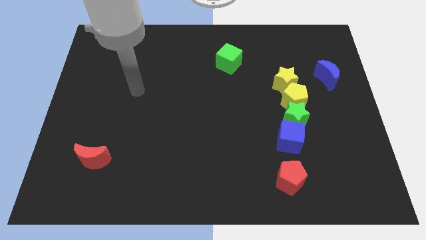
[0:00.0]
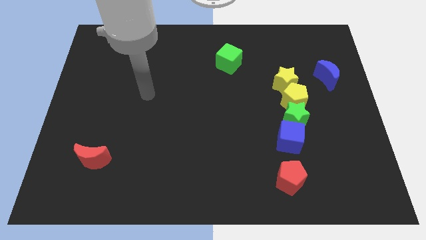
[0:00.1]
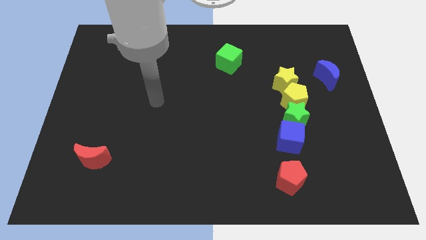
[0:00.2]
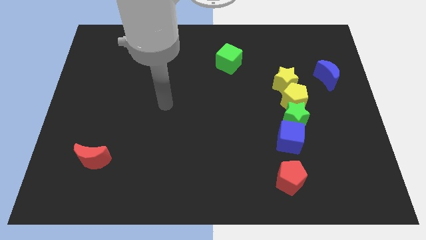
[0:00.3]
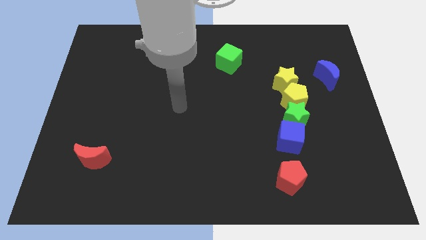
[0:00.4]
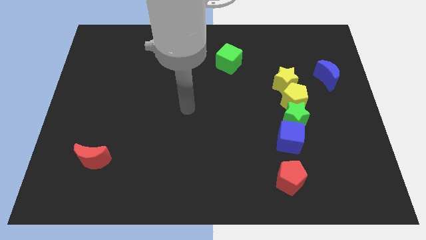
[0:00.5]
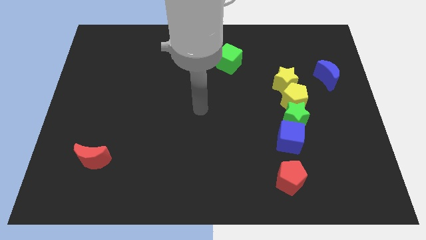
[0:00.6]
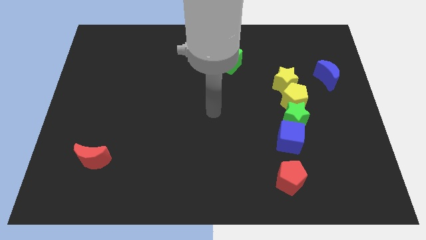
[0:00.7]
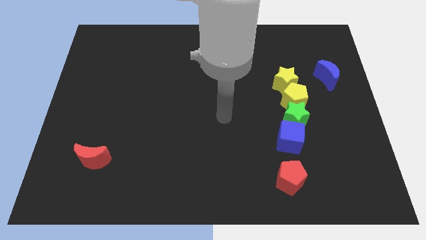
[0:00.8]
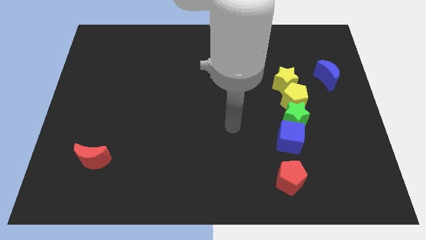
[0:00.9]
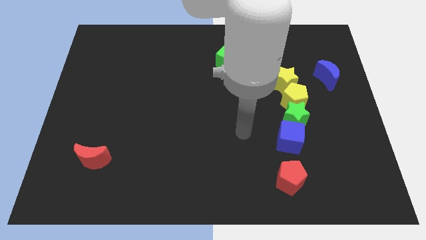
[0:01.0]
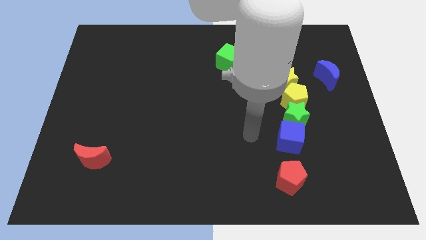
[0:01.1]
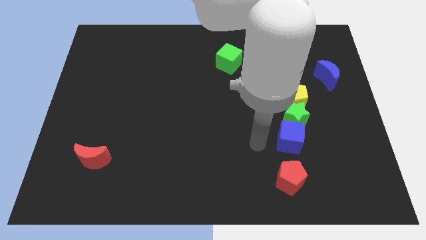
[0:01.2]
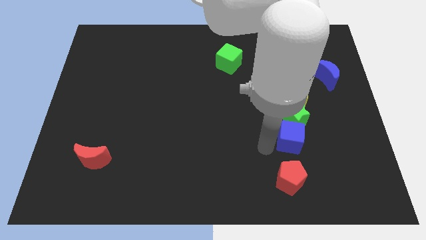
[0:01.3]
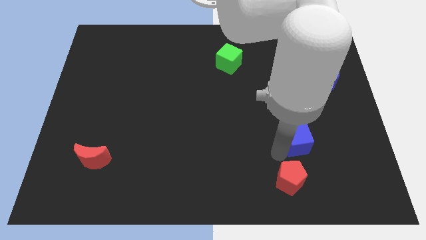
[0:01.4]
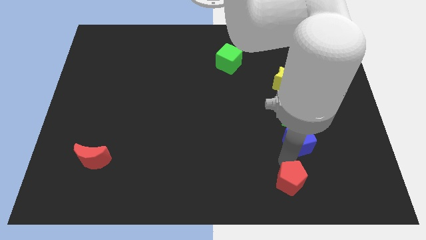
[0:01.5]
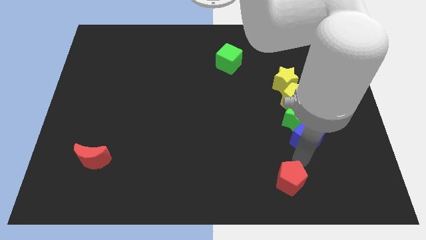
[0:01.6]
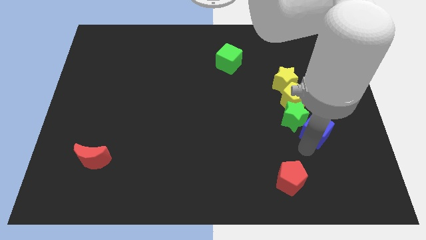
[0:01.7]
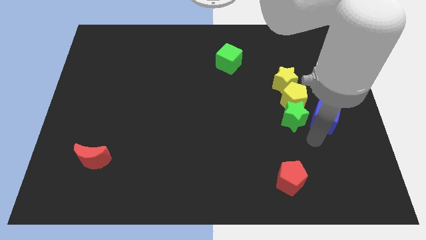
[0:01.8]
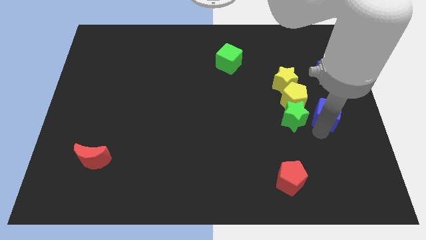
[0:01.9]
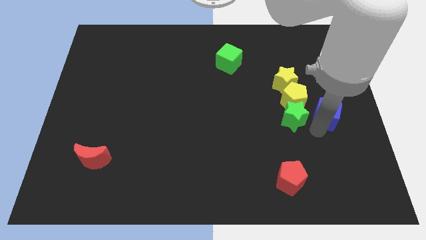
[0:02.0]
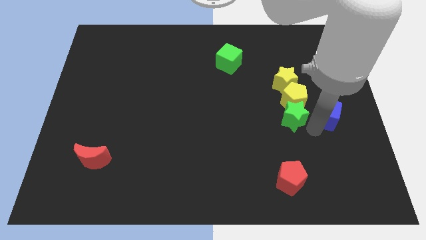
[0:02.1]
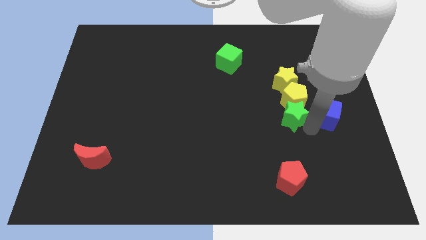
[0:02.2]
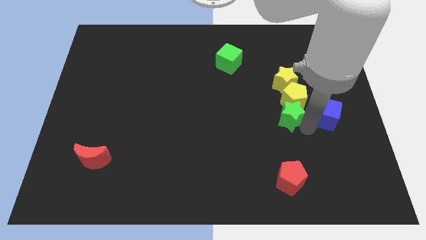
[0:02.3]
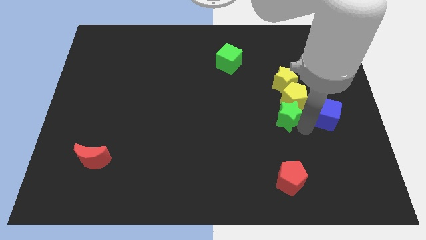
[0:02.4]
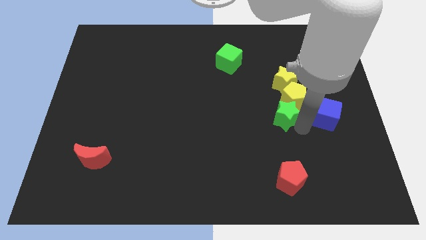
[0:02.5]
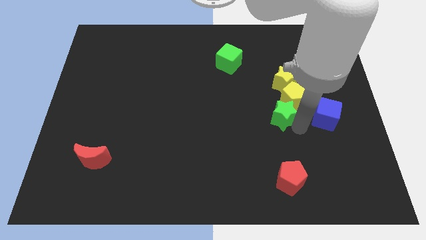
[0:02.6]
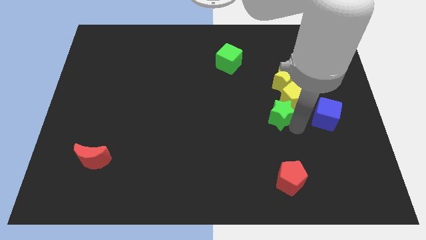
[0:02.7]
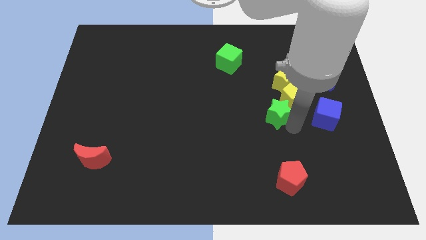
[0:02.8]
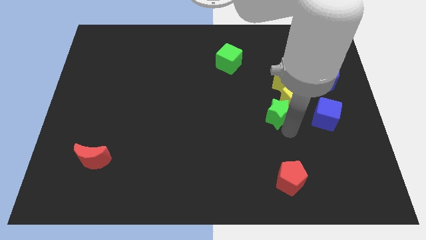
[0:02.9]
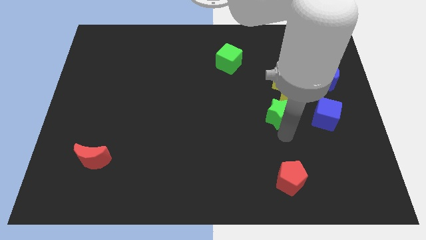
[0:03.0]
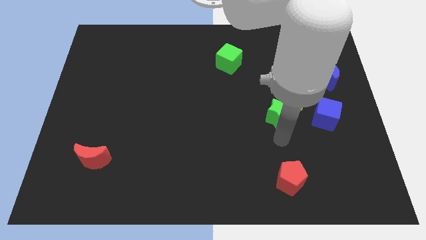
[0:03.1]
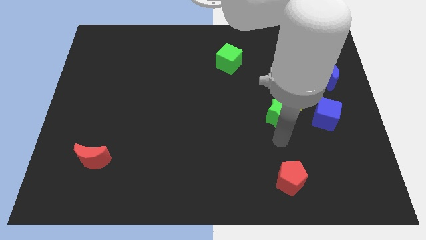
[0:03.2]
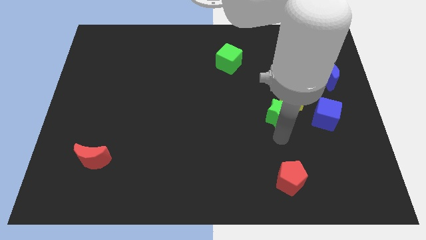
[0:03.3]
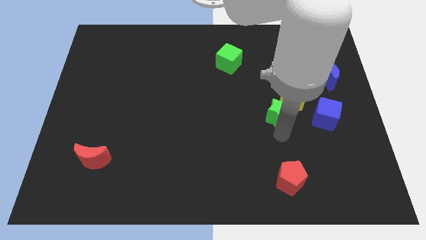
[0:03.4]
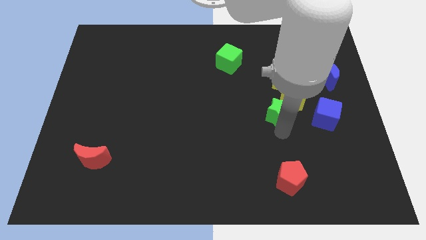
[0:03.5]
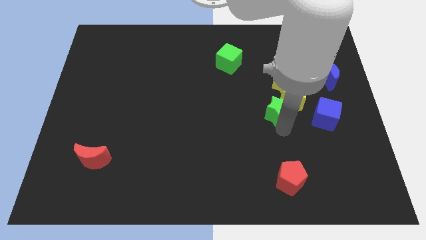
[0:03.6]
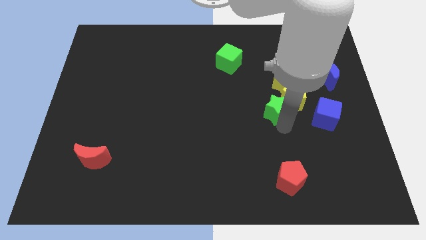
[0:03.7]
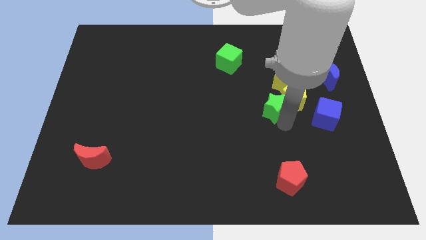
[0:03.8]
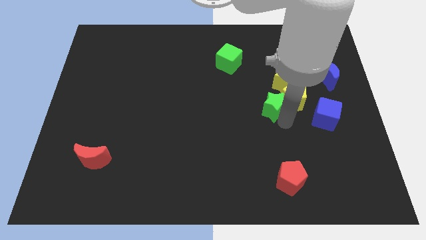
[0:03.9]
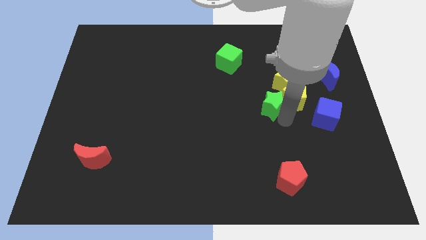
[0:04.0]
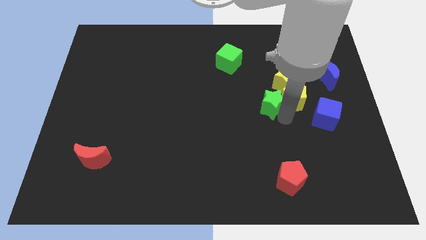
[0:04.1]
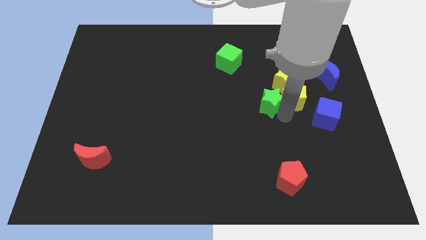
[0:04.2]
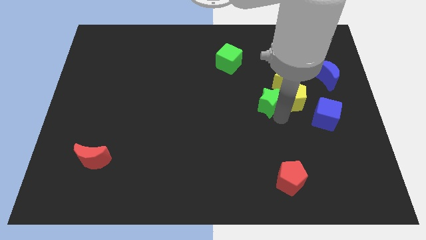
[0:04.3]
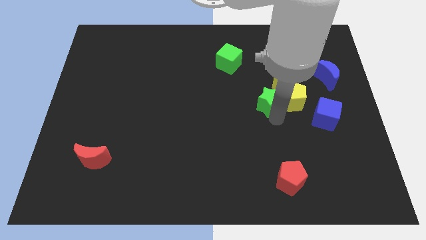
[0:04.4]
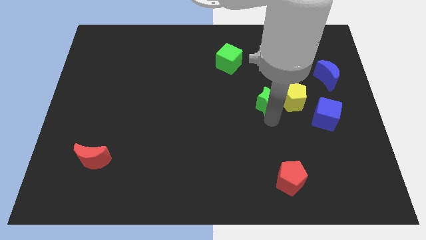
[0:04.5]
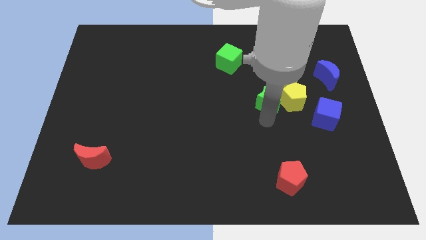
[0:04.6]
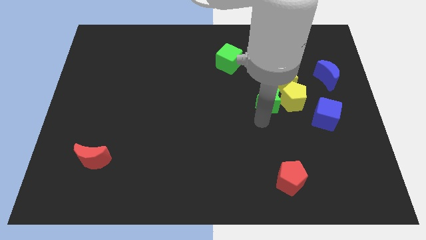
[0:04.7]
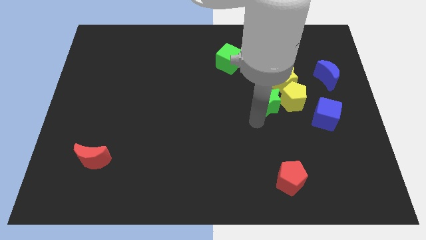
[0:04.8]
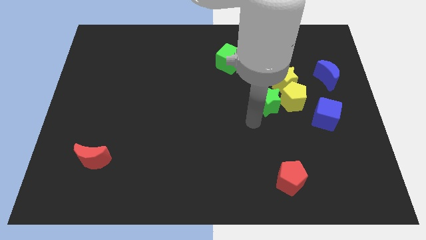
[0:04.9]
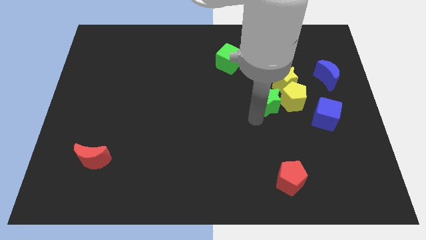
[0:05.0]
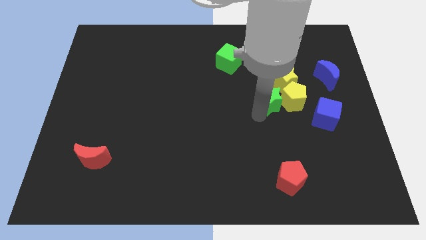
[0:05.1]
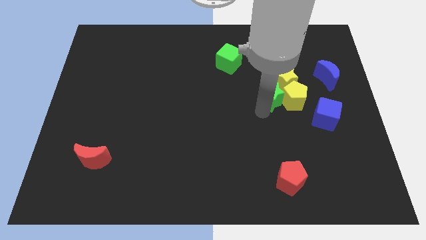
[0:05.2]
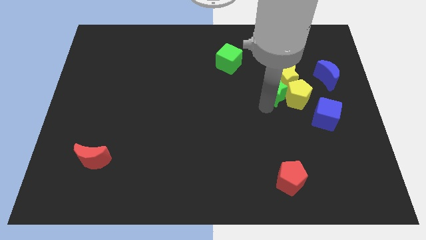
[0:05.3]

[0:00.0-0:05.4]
push the green star close to the yellow star

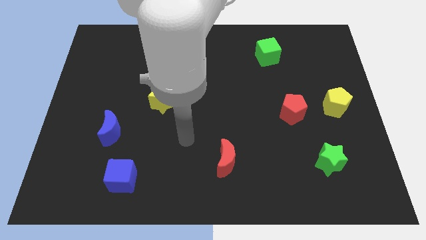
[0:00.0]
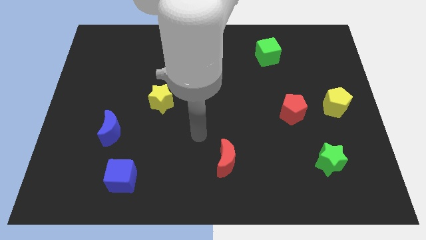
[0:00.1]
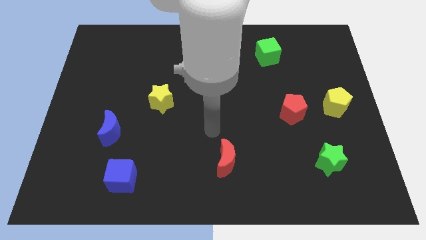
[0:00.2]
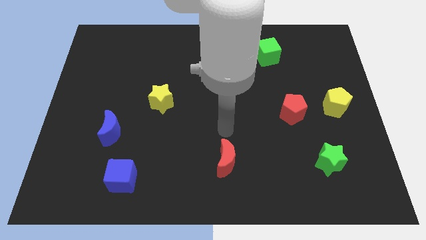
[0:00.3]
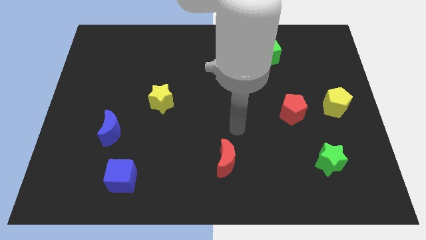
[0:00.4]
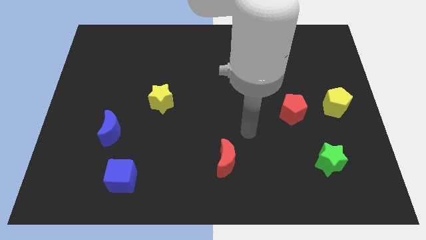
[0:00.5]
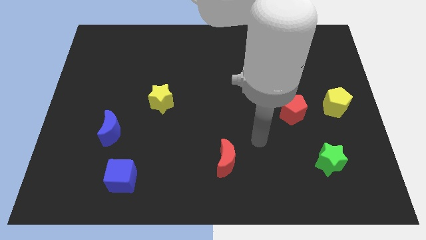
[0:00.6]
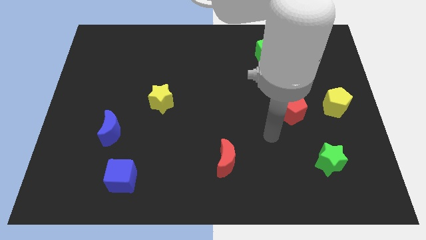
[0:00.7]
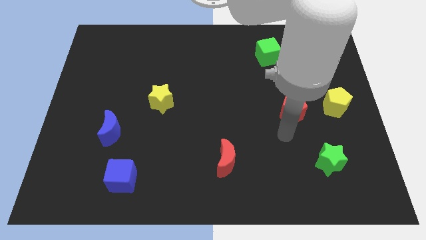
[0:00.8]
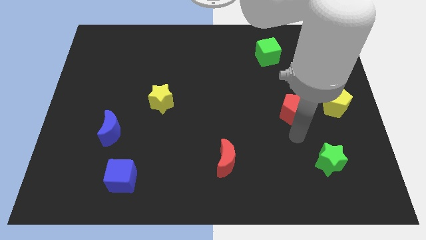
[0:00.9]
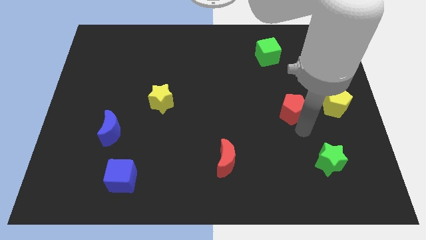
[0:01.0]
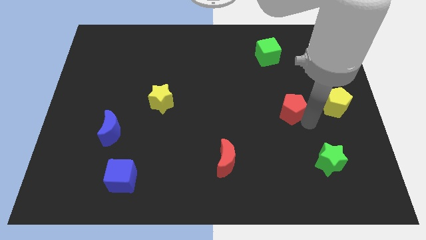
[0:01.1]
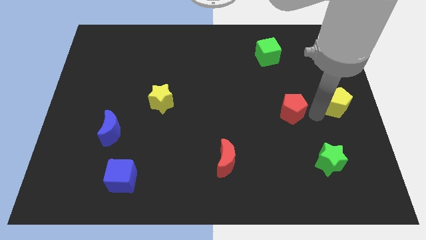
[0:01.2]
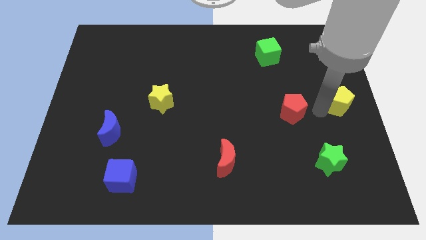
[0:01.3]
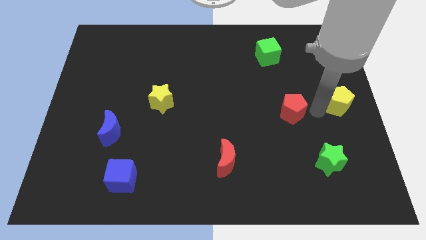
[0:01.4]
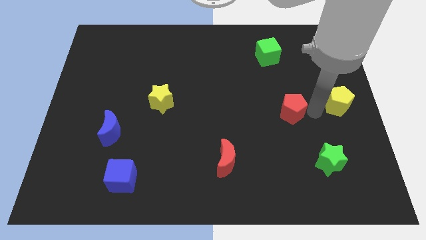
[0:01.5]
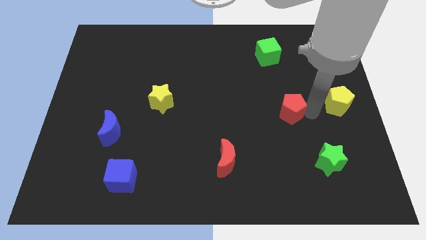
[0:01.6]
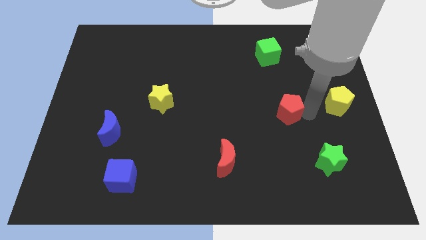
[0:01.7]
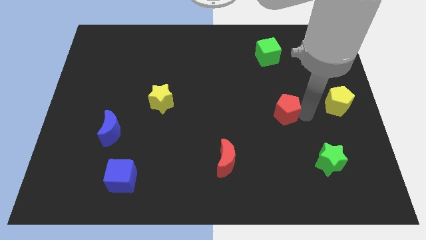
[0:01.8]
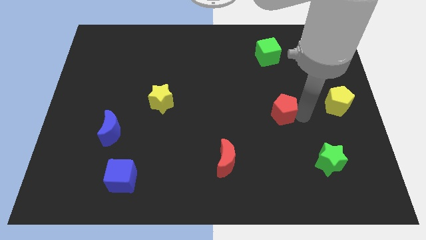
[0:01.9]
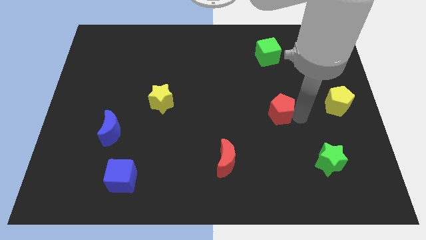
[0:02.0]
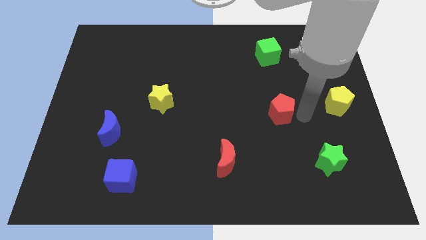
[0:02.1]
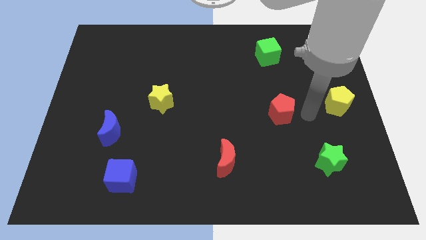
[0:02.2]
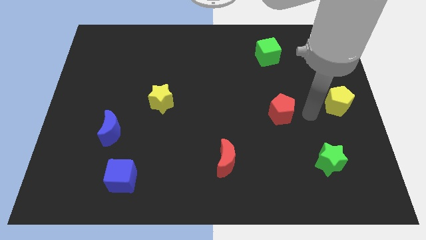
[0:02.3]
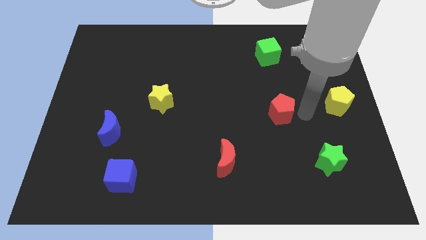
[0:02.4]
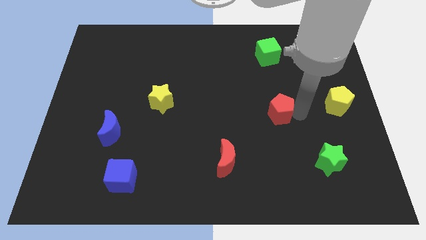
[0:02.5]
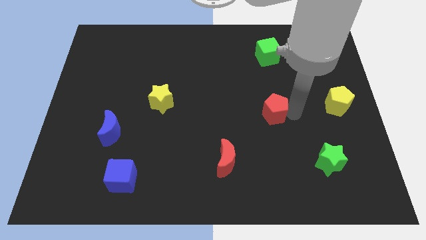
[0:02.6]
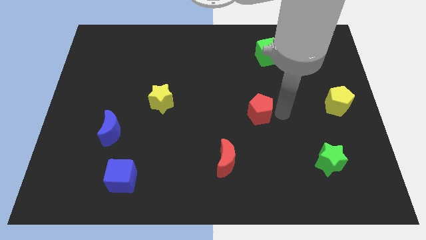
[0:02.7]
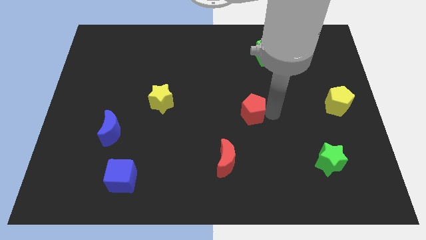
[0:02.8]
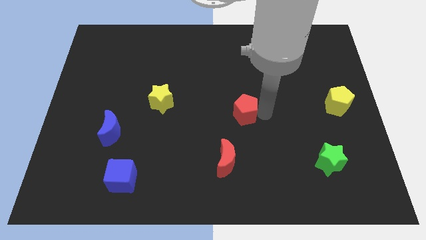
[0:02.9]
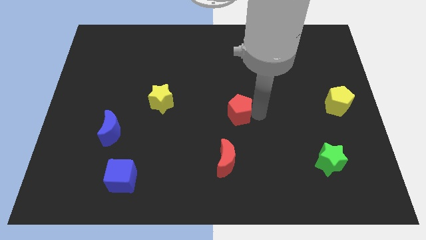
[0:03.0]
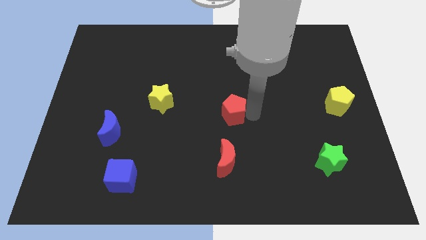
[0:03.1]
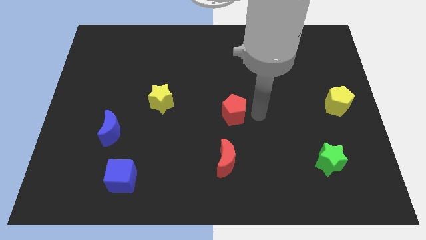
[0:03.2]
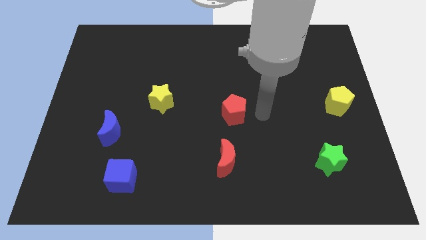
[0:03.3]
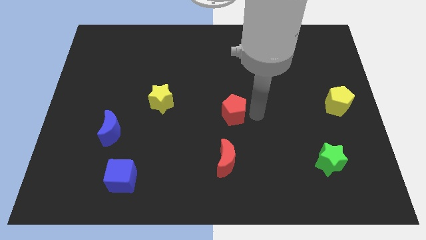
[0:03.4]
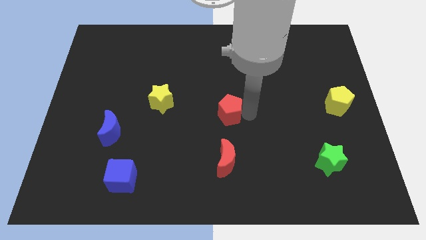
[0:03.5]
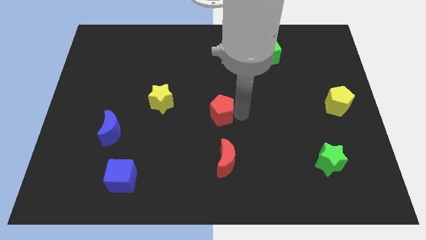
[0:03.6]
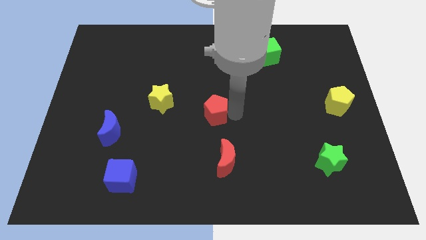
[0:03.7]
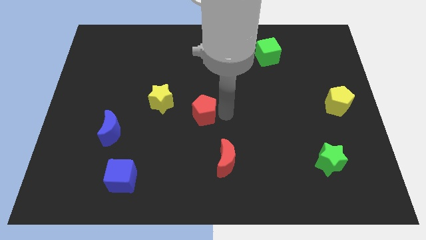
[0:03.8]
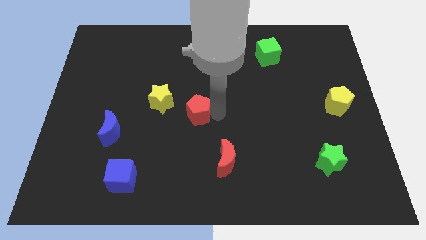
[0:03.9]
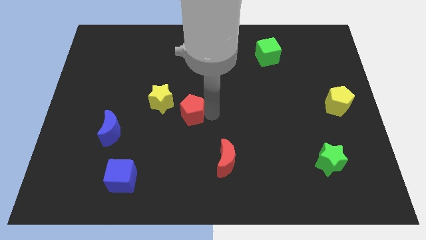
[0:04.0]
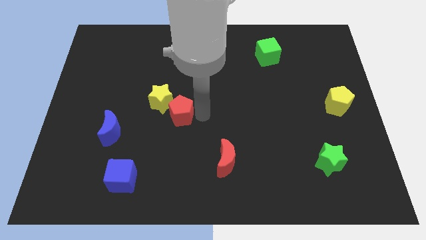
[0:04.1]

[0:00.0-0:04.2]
slide the red pentagon towards the yellow star
